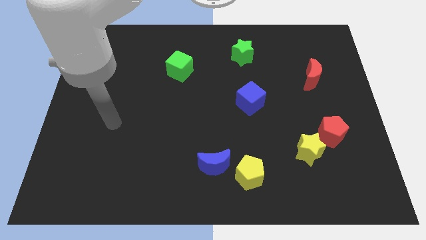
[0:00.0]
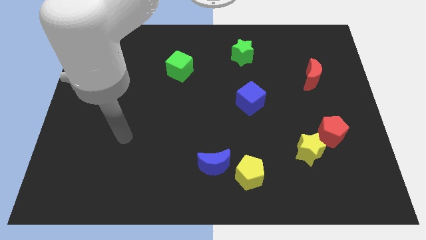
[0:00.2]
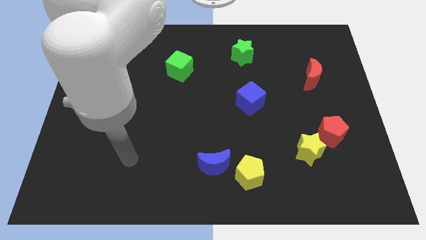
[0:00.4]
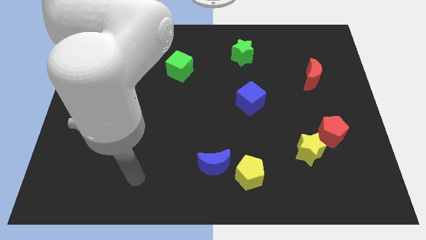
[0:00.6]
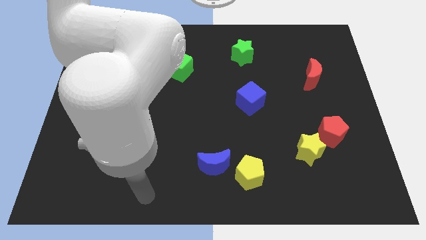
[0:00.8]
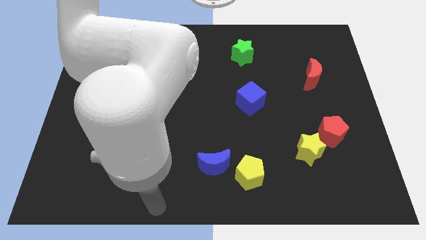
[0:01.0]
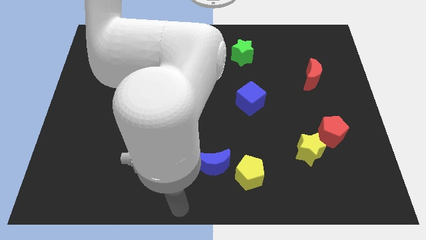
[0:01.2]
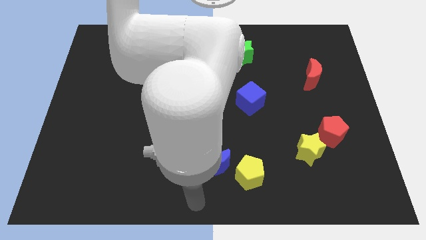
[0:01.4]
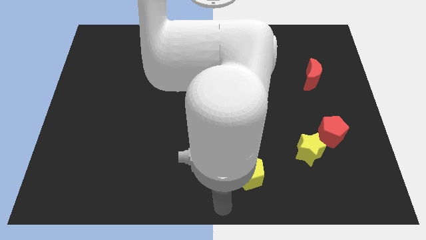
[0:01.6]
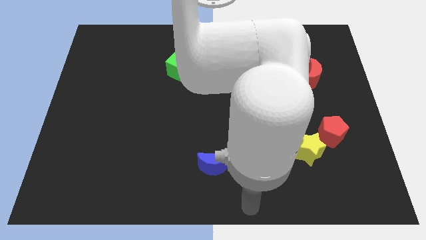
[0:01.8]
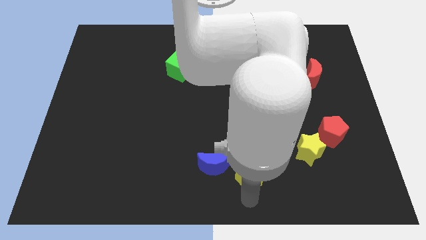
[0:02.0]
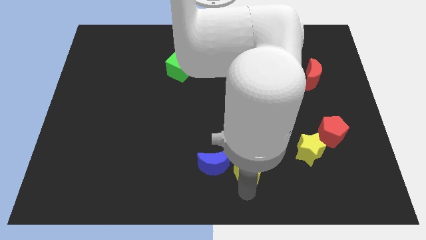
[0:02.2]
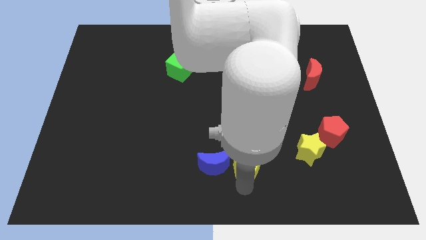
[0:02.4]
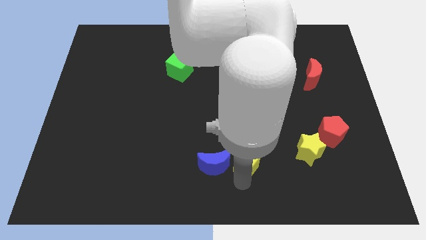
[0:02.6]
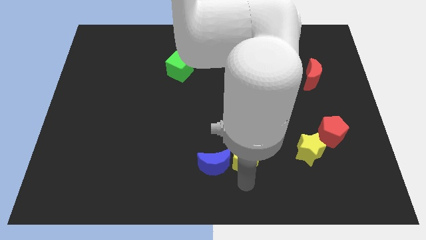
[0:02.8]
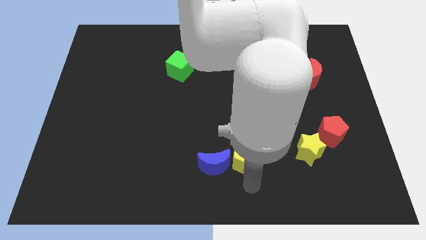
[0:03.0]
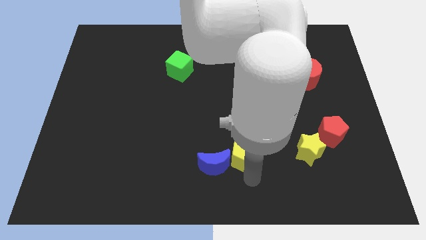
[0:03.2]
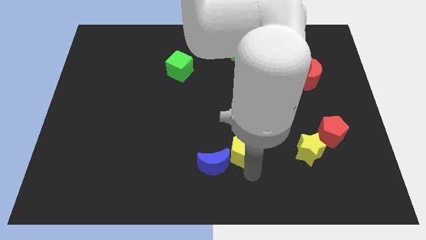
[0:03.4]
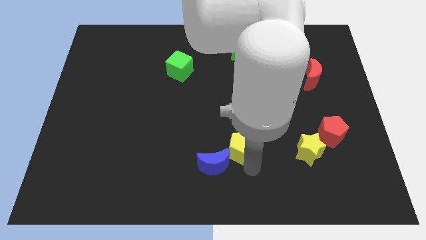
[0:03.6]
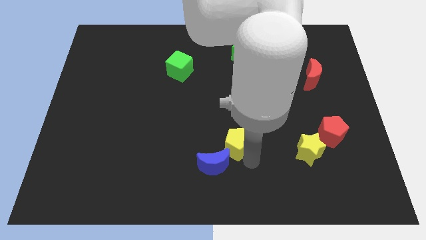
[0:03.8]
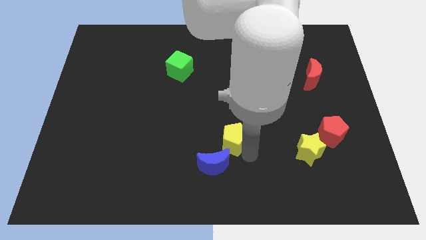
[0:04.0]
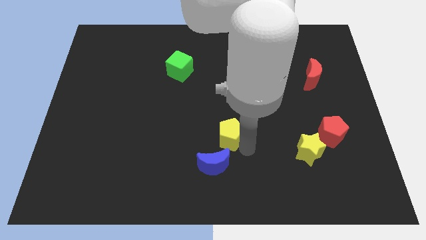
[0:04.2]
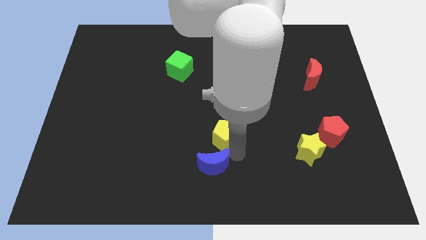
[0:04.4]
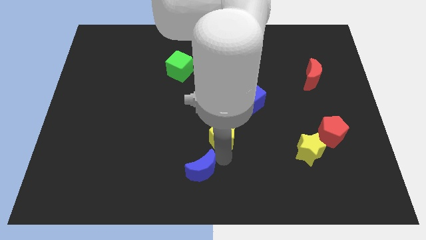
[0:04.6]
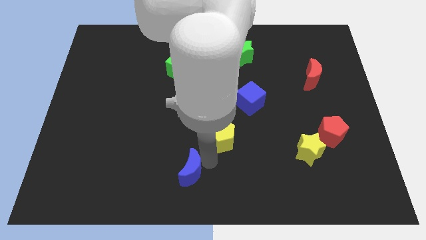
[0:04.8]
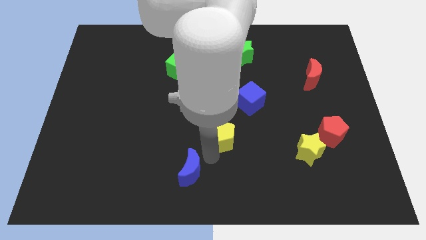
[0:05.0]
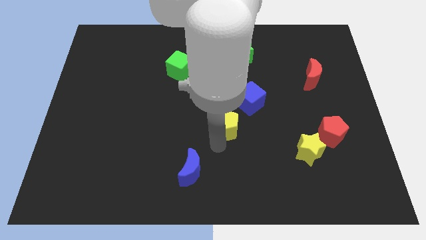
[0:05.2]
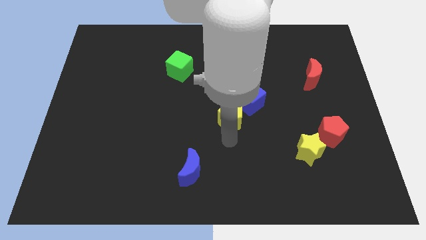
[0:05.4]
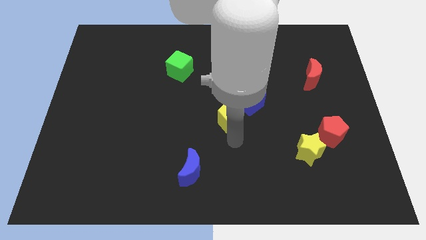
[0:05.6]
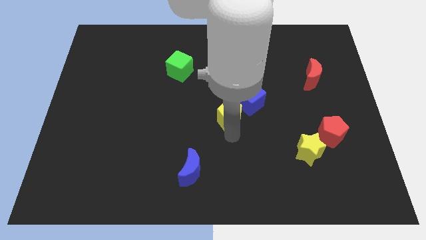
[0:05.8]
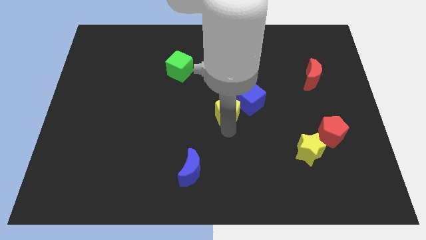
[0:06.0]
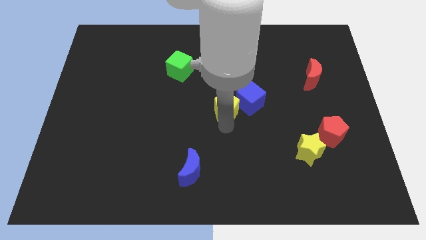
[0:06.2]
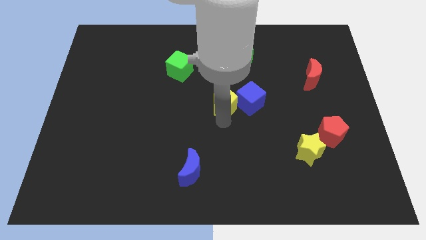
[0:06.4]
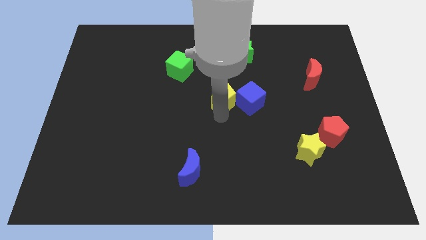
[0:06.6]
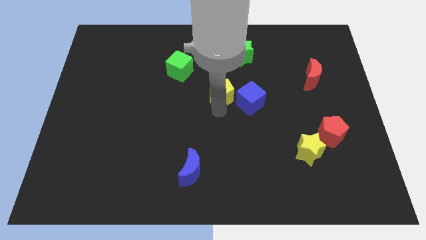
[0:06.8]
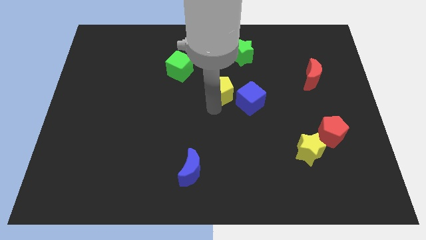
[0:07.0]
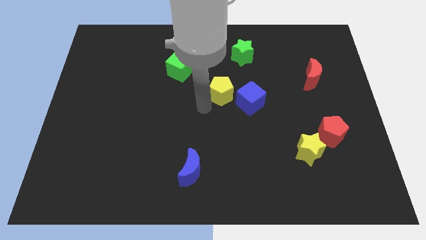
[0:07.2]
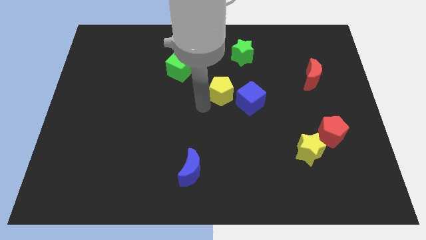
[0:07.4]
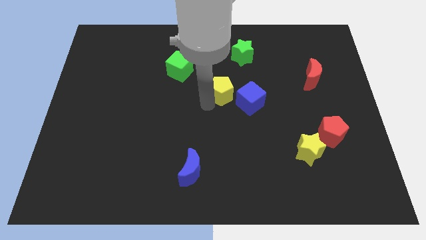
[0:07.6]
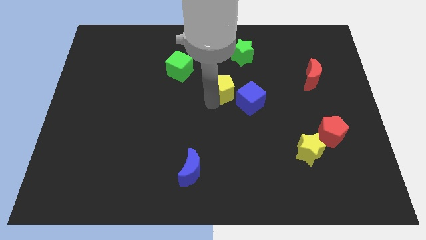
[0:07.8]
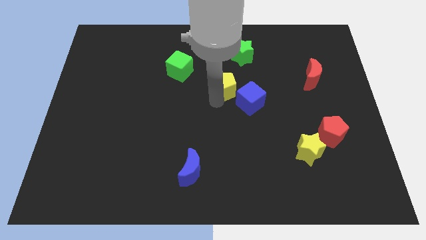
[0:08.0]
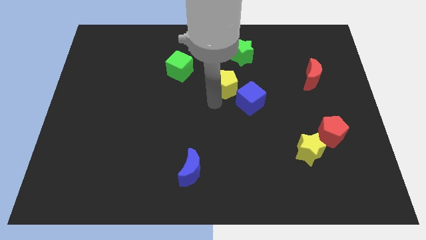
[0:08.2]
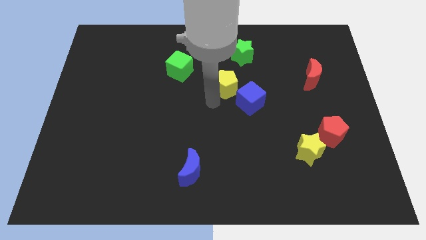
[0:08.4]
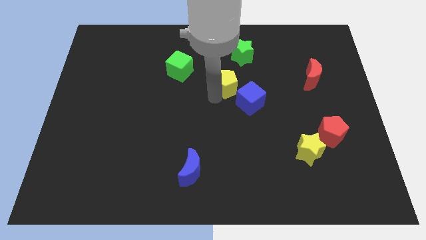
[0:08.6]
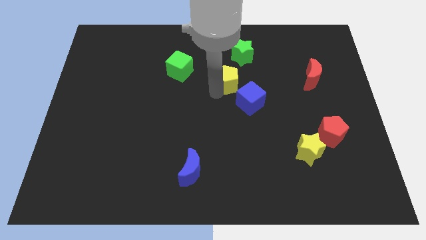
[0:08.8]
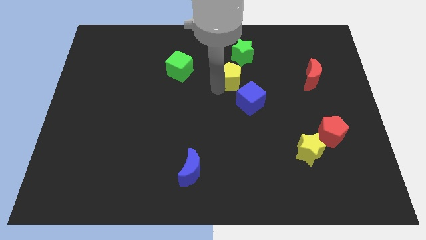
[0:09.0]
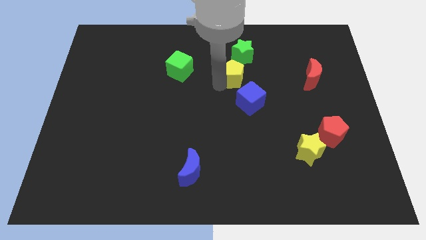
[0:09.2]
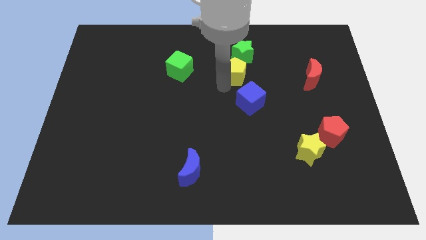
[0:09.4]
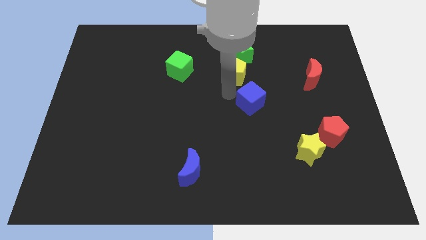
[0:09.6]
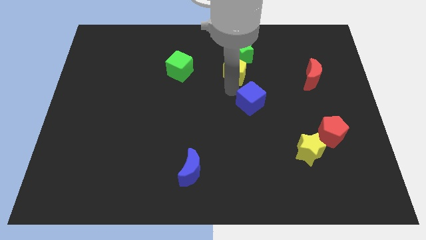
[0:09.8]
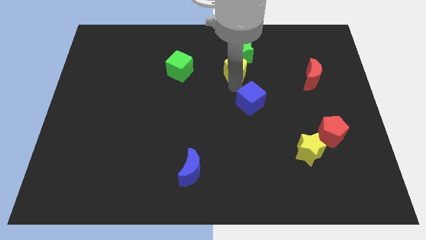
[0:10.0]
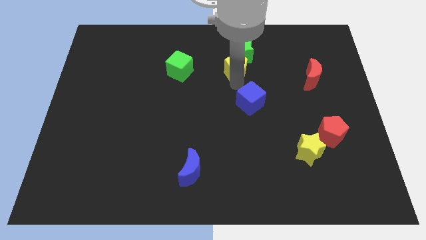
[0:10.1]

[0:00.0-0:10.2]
slide the yellow pentagon close to the green star

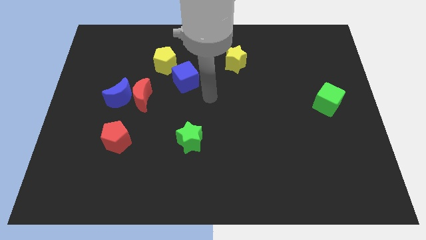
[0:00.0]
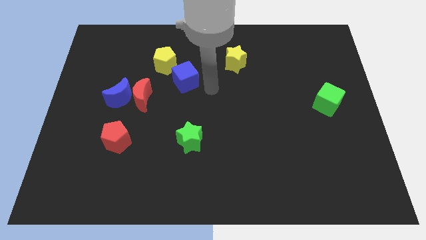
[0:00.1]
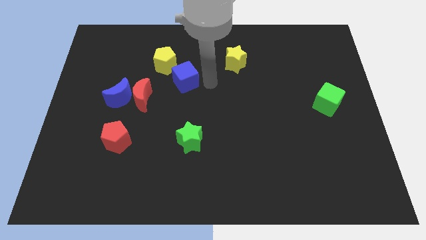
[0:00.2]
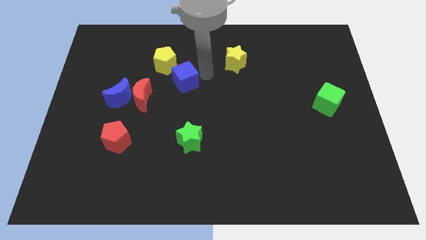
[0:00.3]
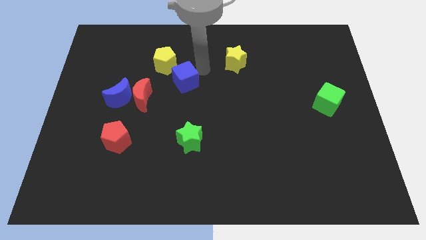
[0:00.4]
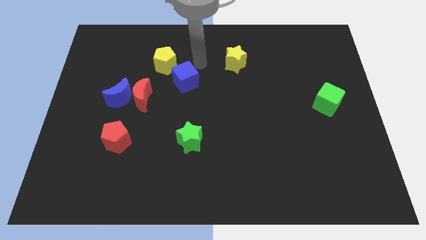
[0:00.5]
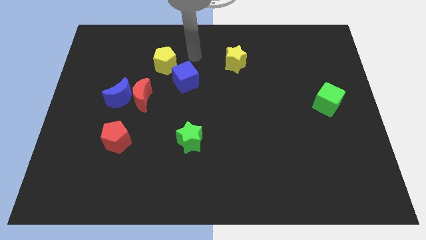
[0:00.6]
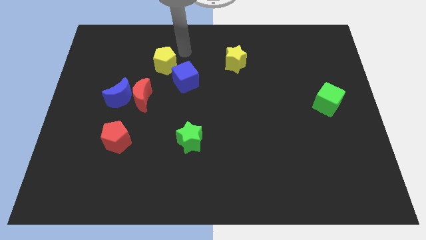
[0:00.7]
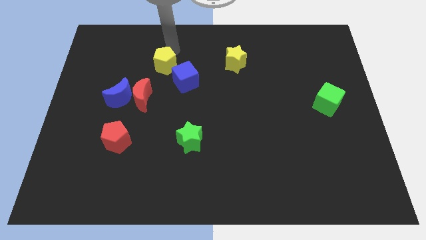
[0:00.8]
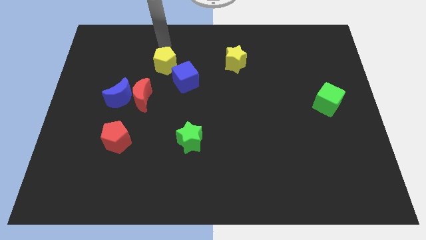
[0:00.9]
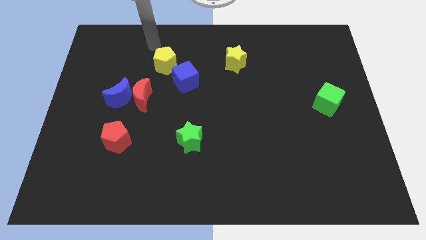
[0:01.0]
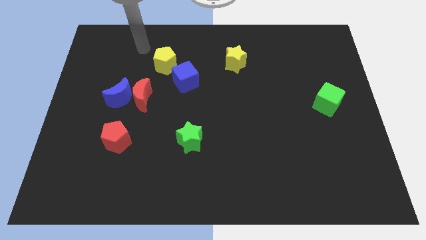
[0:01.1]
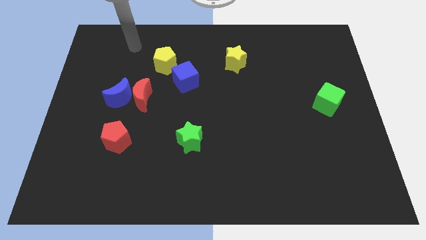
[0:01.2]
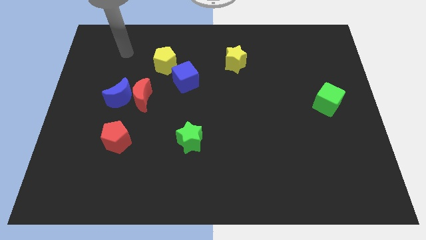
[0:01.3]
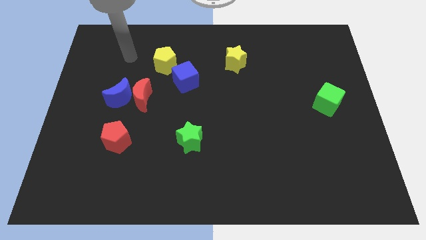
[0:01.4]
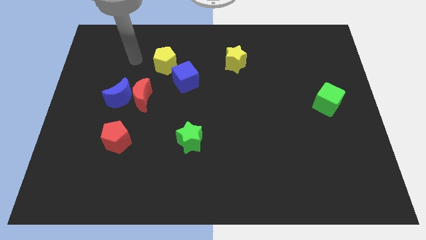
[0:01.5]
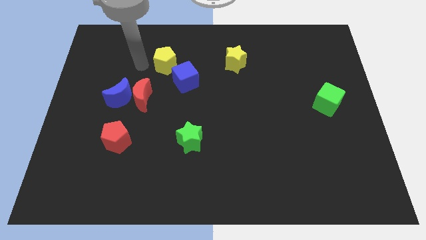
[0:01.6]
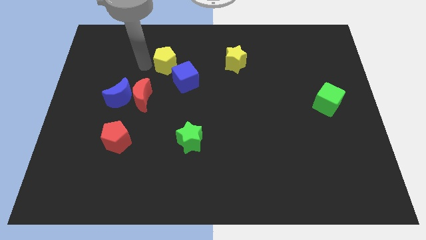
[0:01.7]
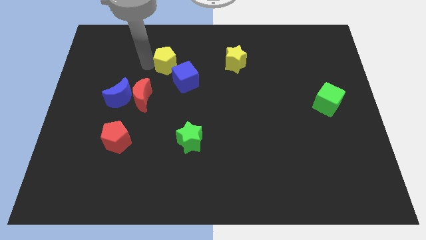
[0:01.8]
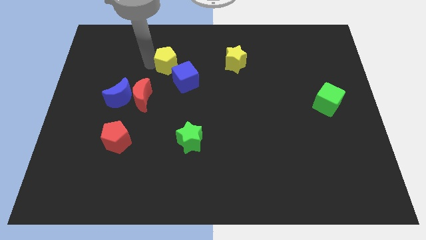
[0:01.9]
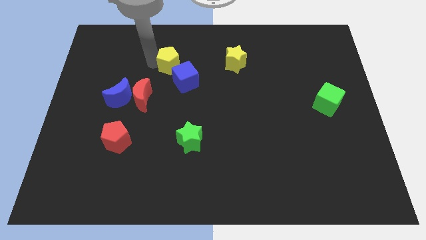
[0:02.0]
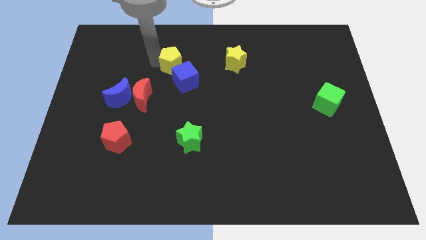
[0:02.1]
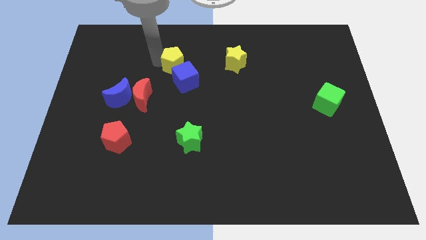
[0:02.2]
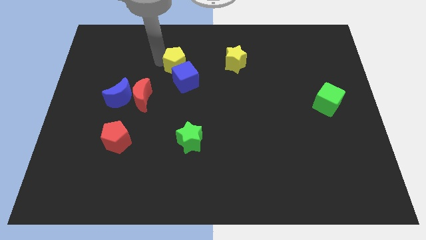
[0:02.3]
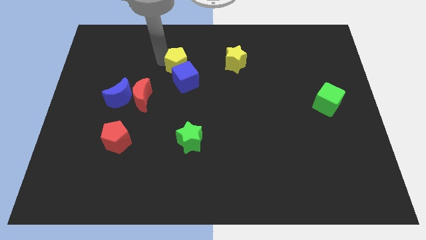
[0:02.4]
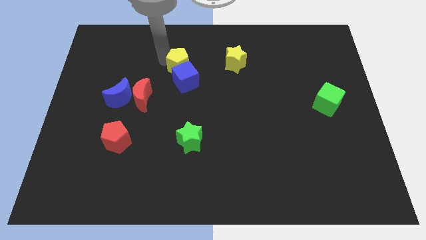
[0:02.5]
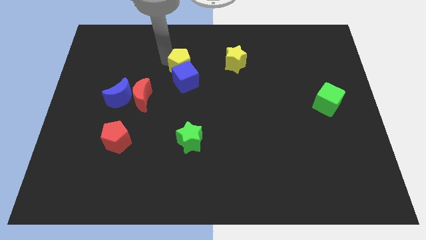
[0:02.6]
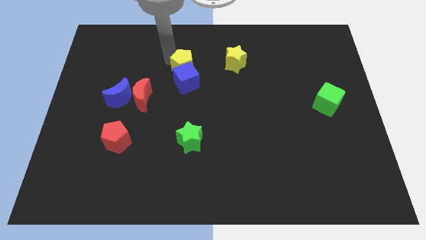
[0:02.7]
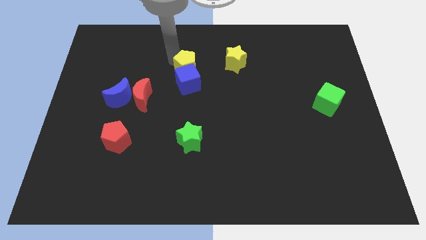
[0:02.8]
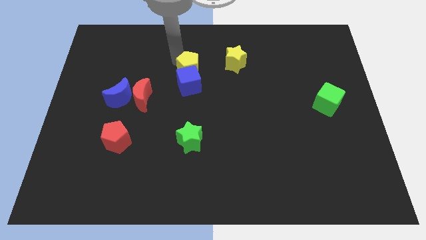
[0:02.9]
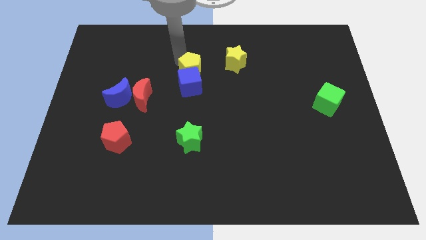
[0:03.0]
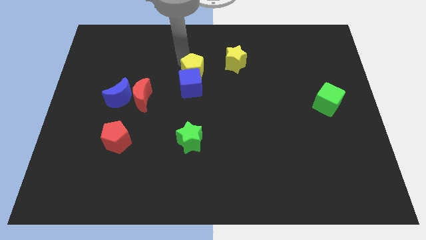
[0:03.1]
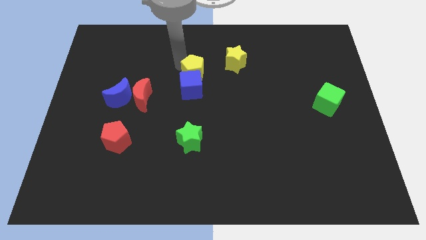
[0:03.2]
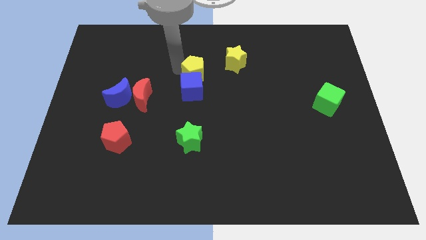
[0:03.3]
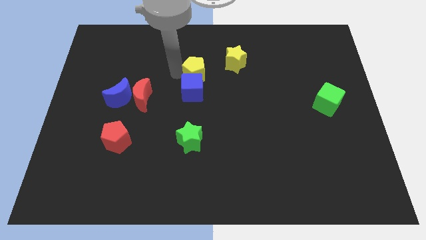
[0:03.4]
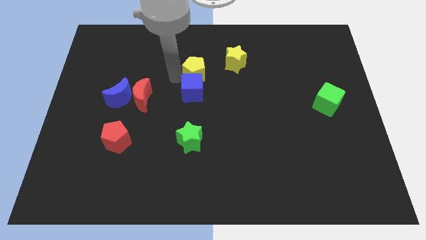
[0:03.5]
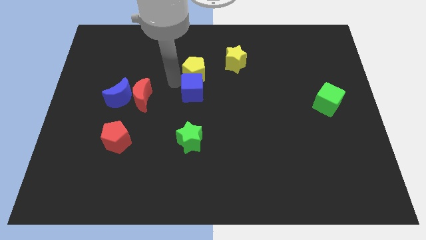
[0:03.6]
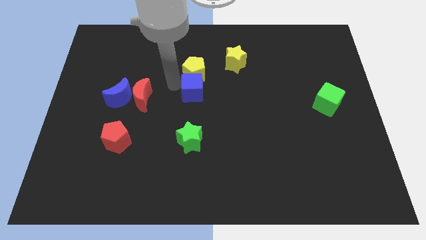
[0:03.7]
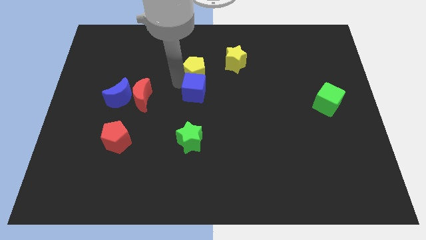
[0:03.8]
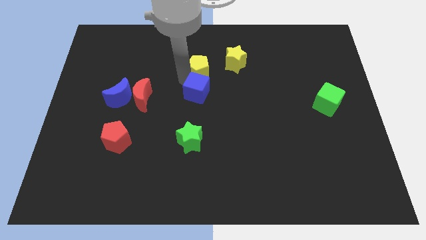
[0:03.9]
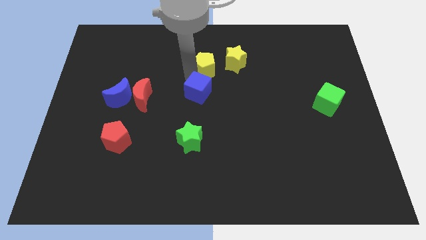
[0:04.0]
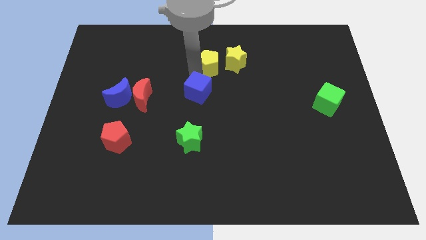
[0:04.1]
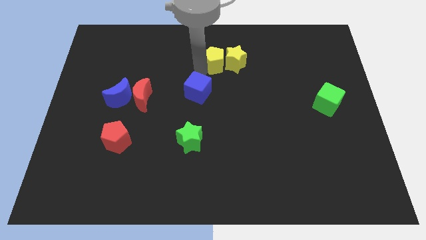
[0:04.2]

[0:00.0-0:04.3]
put the yellow pentagon to the yellow star
